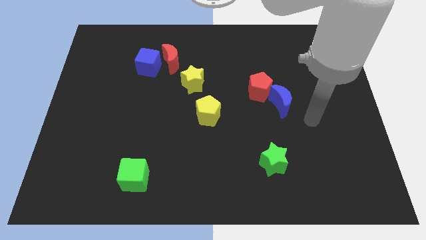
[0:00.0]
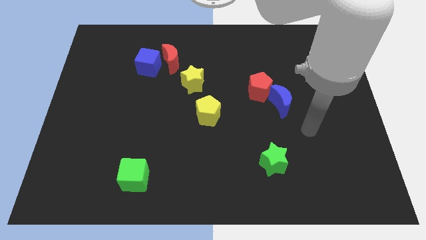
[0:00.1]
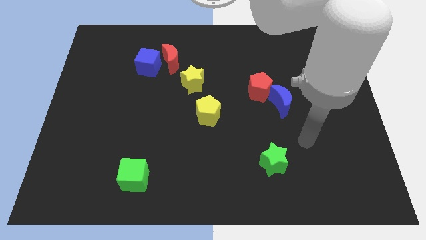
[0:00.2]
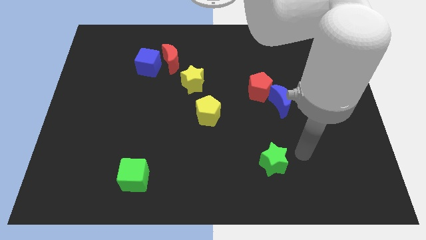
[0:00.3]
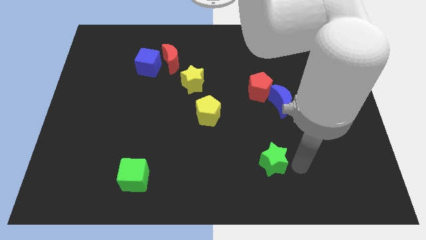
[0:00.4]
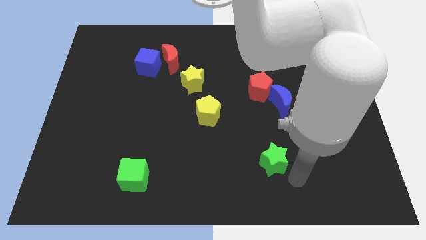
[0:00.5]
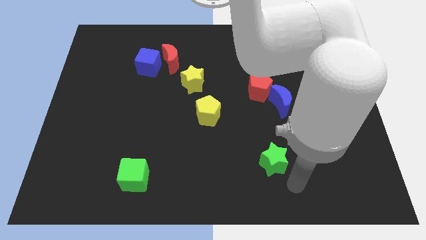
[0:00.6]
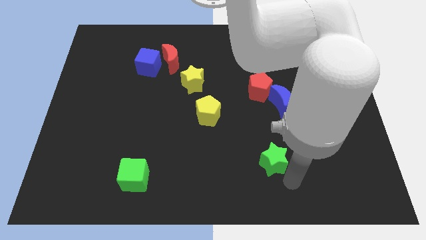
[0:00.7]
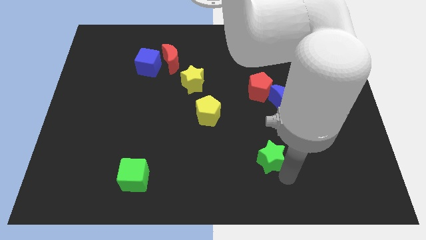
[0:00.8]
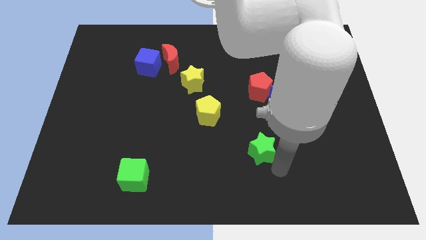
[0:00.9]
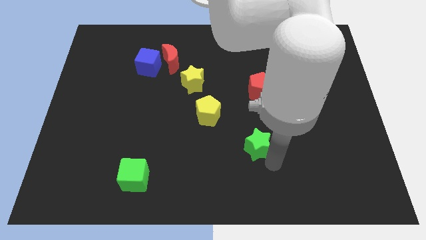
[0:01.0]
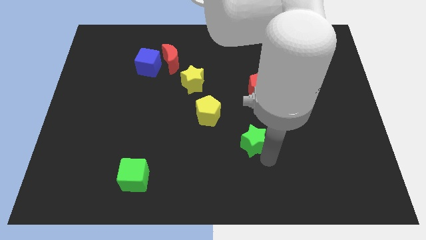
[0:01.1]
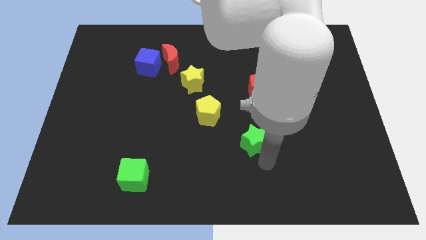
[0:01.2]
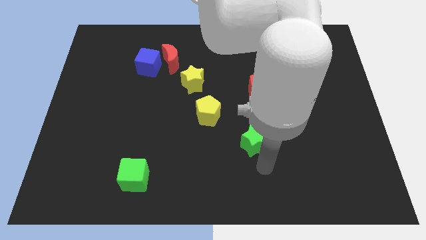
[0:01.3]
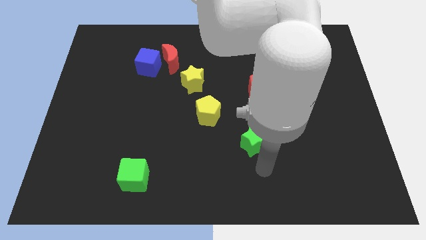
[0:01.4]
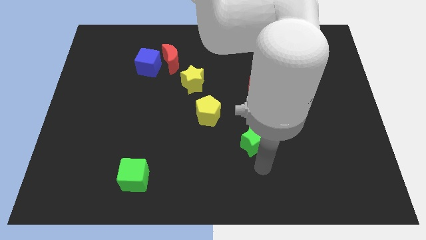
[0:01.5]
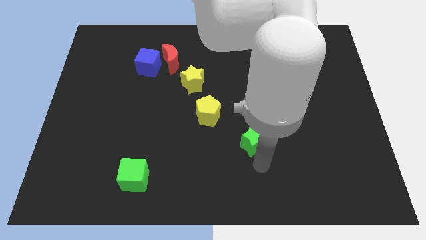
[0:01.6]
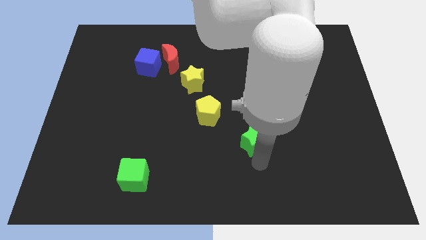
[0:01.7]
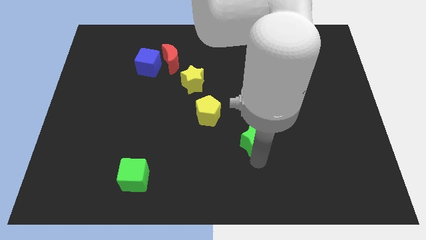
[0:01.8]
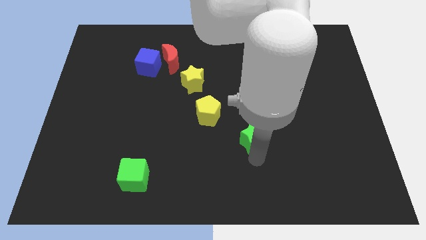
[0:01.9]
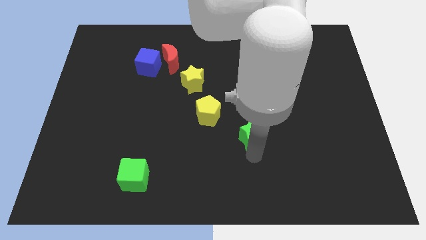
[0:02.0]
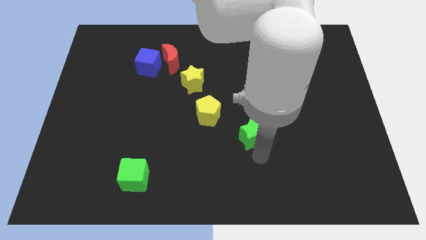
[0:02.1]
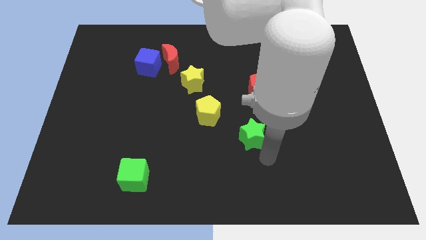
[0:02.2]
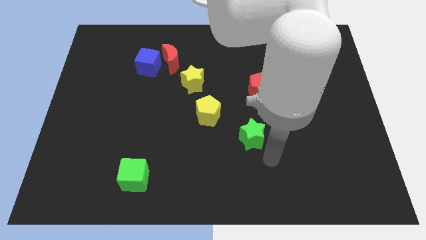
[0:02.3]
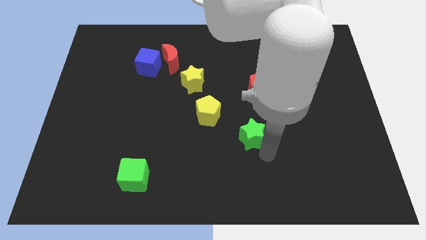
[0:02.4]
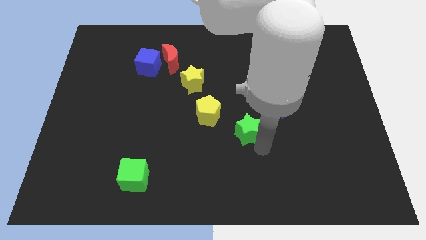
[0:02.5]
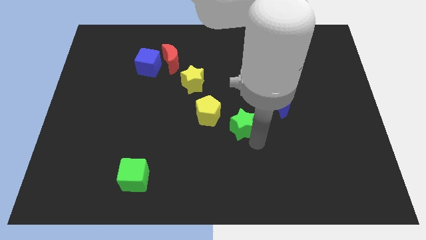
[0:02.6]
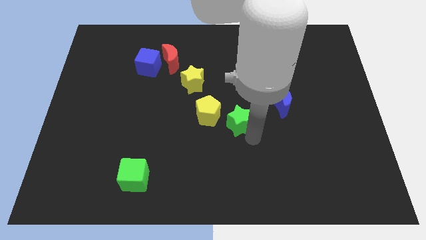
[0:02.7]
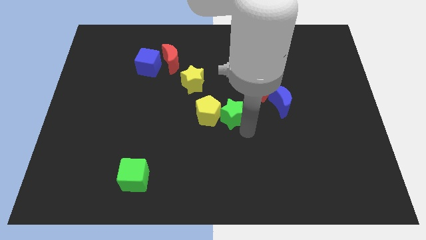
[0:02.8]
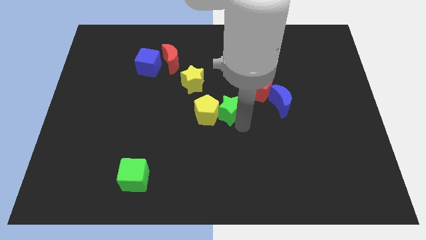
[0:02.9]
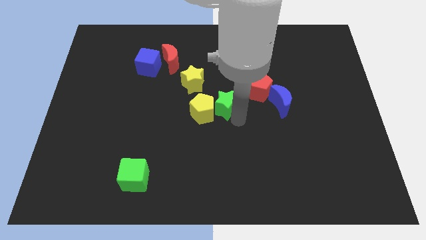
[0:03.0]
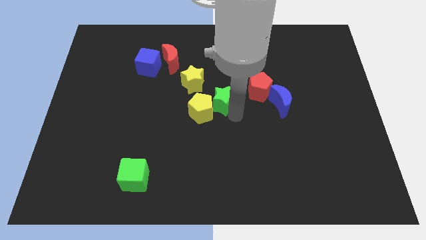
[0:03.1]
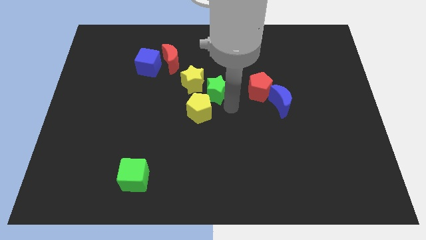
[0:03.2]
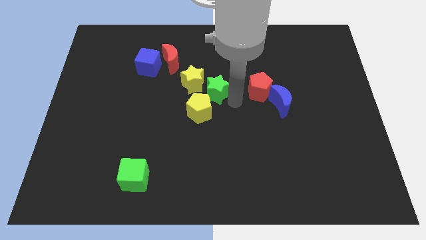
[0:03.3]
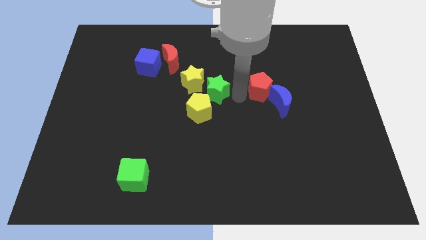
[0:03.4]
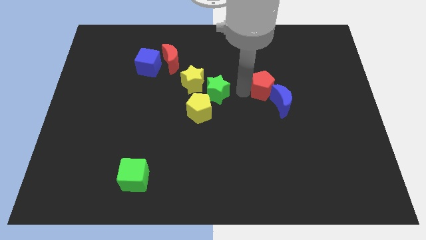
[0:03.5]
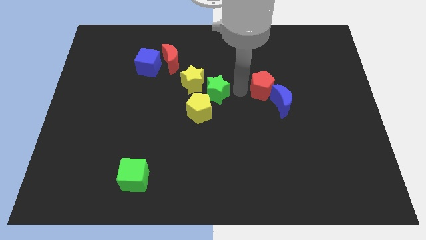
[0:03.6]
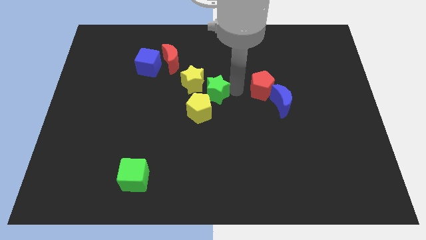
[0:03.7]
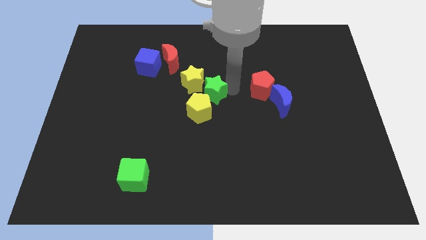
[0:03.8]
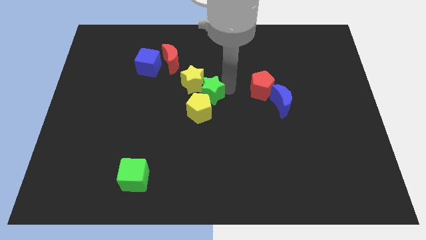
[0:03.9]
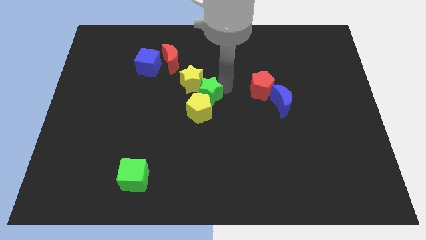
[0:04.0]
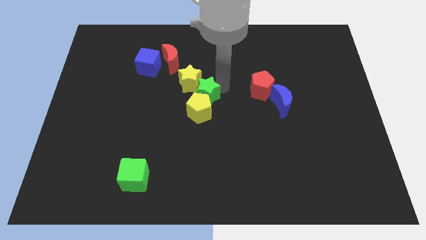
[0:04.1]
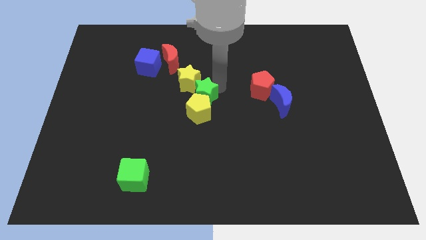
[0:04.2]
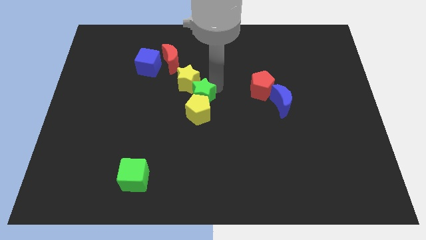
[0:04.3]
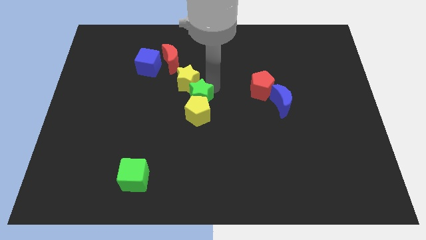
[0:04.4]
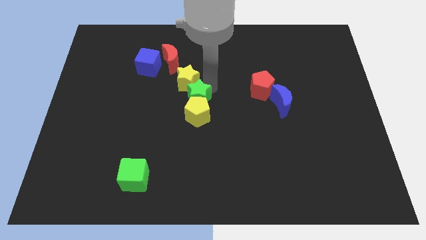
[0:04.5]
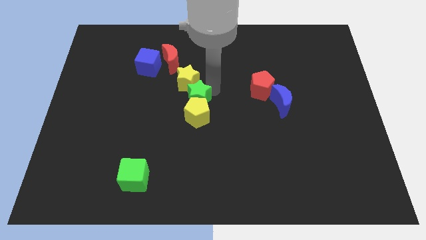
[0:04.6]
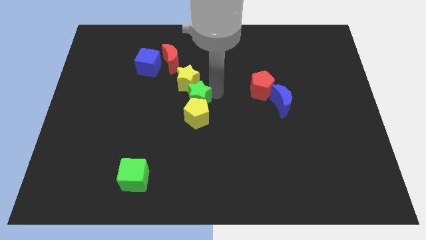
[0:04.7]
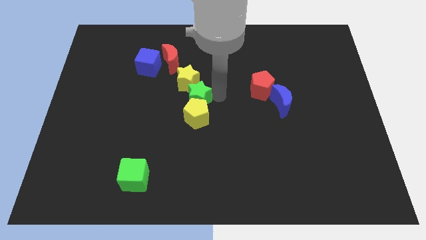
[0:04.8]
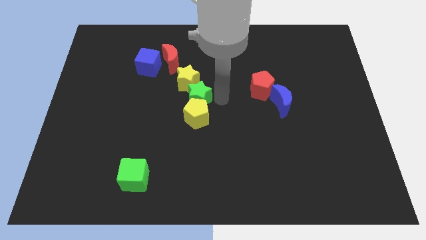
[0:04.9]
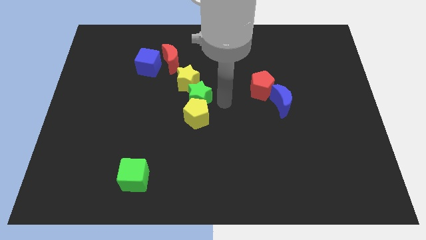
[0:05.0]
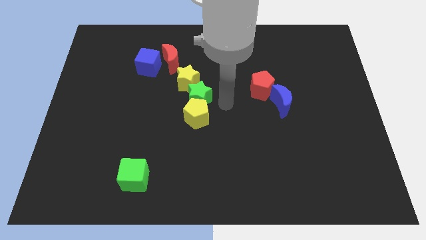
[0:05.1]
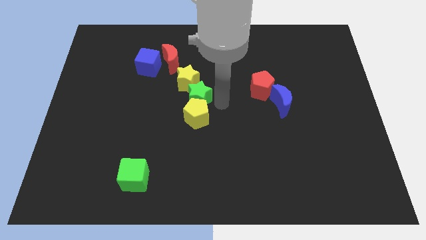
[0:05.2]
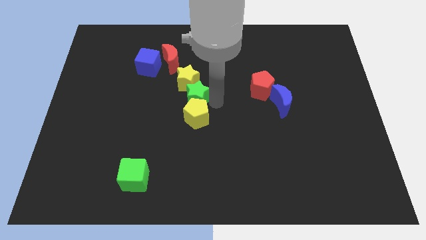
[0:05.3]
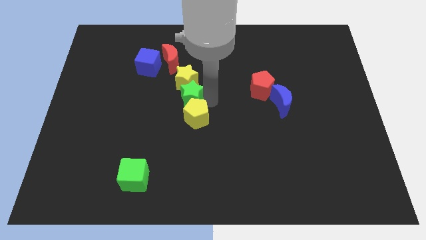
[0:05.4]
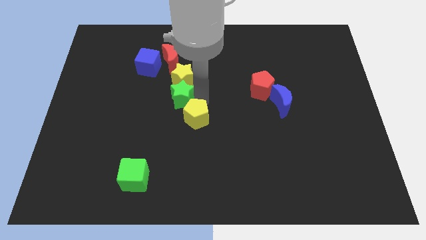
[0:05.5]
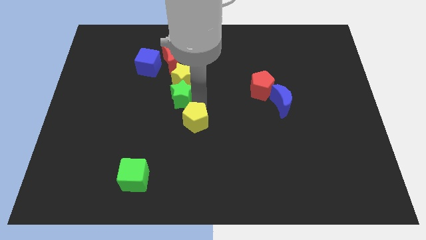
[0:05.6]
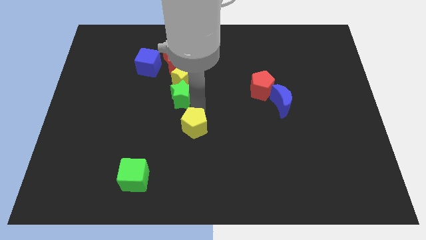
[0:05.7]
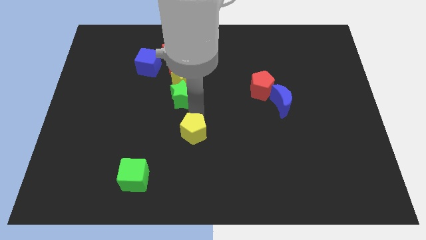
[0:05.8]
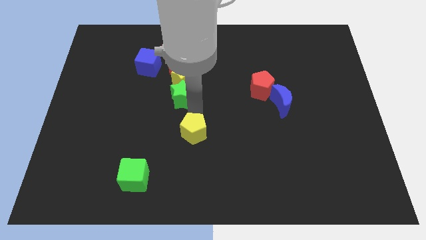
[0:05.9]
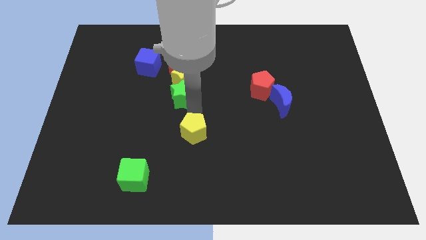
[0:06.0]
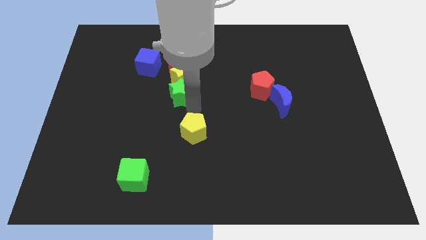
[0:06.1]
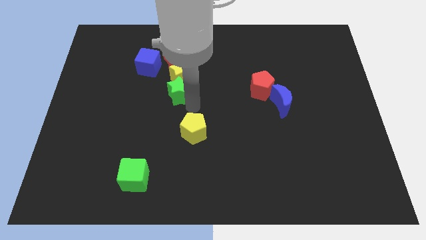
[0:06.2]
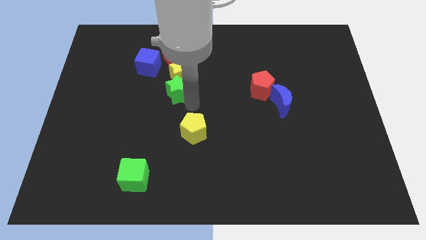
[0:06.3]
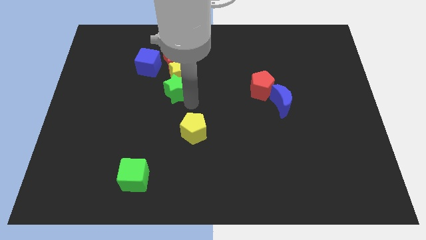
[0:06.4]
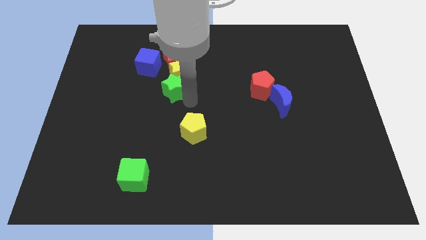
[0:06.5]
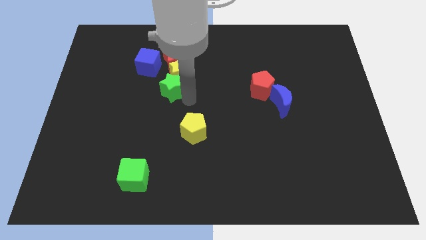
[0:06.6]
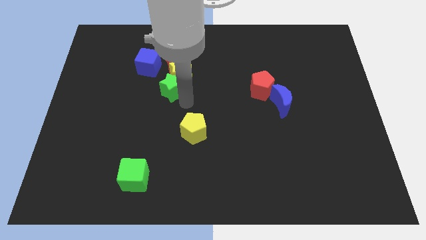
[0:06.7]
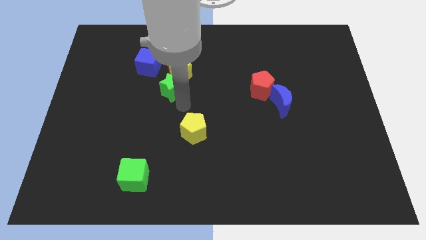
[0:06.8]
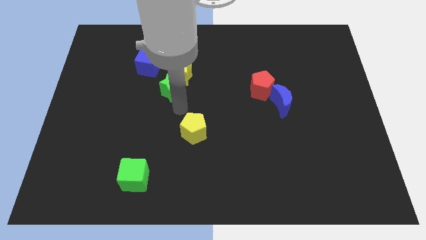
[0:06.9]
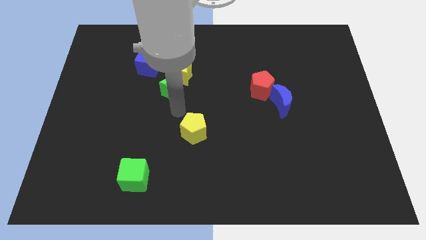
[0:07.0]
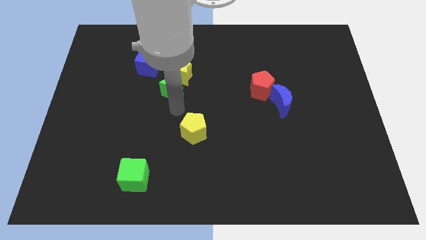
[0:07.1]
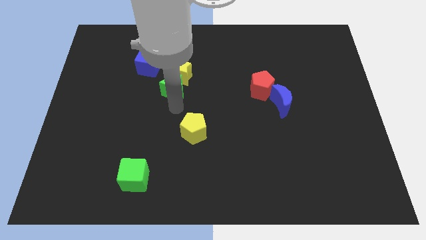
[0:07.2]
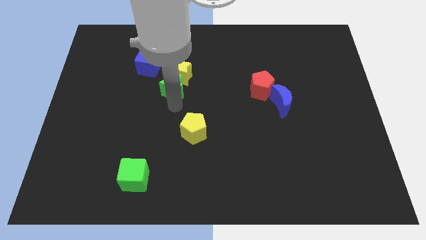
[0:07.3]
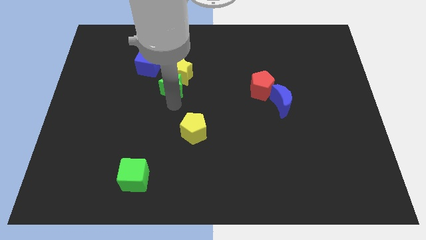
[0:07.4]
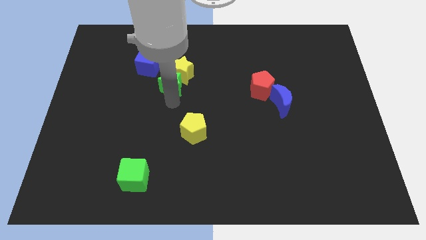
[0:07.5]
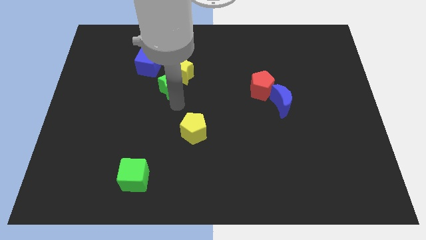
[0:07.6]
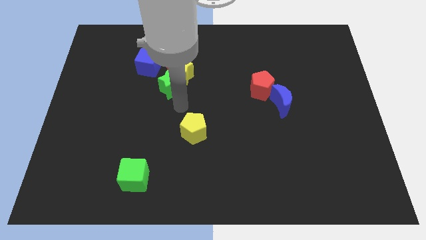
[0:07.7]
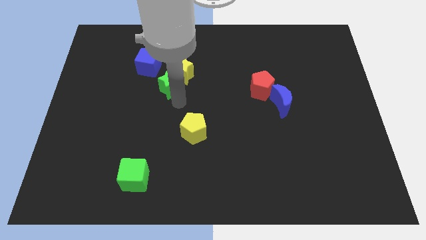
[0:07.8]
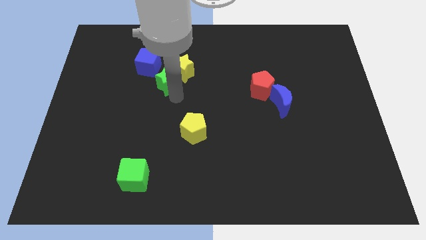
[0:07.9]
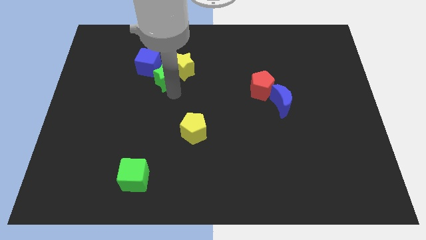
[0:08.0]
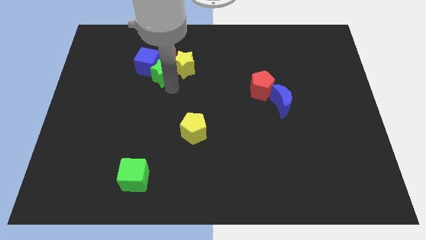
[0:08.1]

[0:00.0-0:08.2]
slide the green star close to the blue cube
